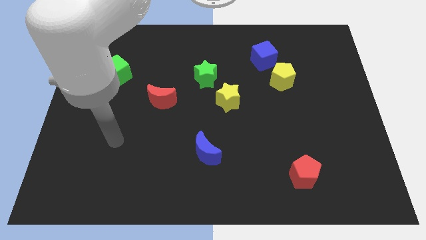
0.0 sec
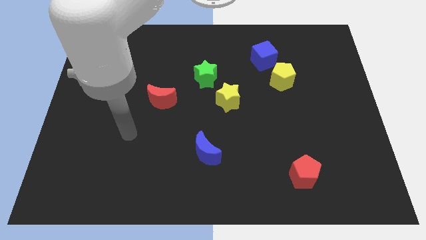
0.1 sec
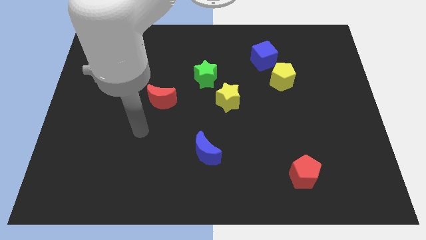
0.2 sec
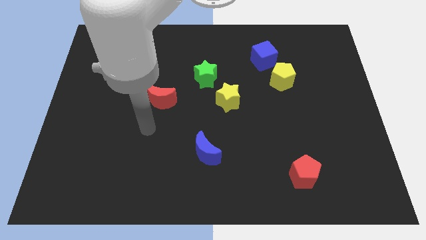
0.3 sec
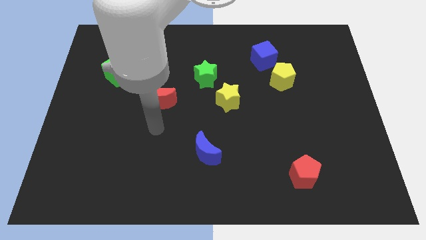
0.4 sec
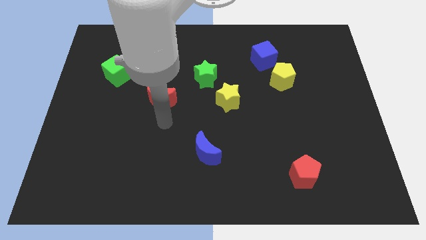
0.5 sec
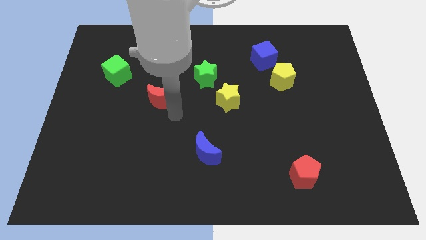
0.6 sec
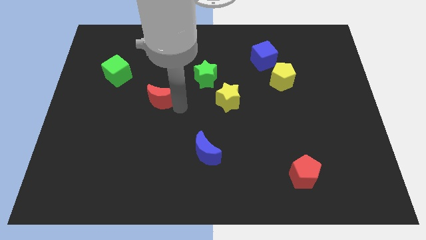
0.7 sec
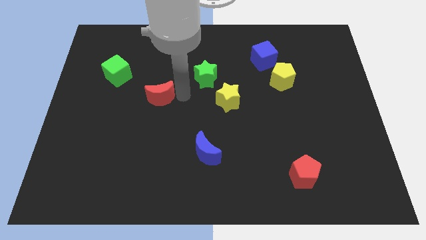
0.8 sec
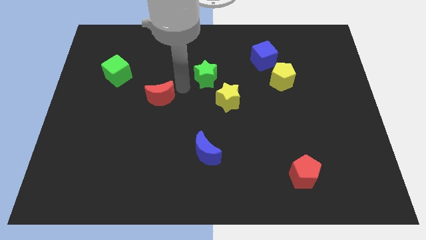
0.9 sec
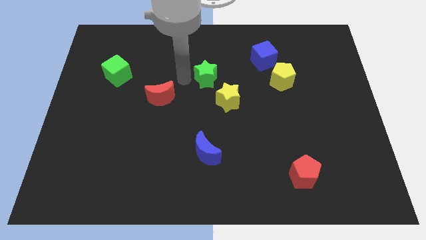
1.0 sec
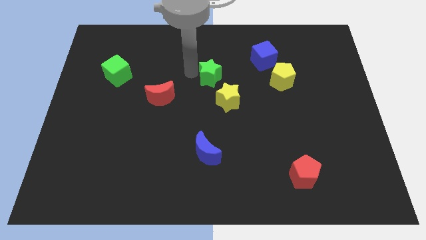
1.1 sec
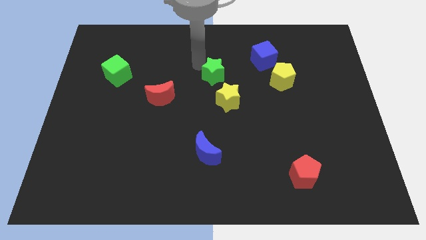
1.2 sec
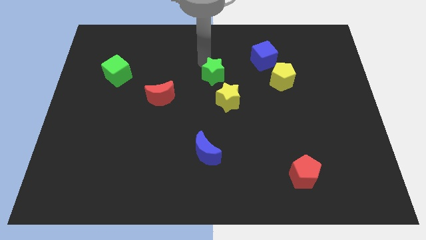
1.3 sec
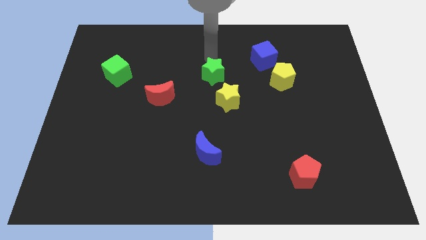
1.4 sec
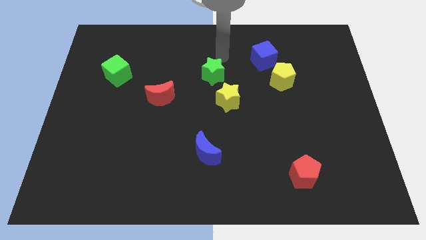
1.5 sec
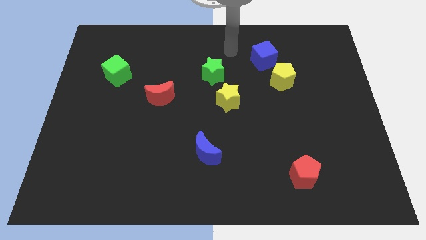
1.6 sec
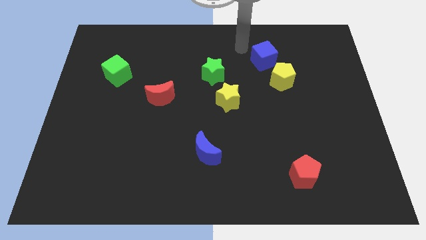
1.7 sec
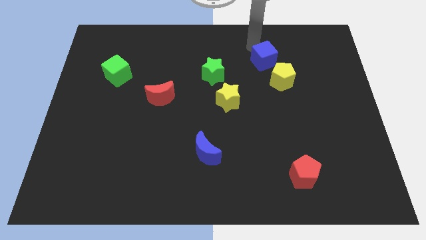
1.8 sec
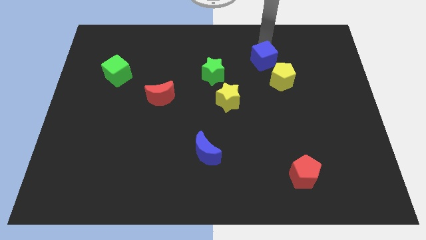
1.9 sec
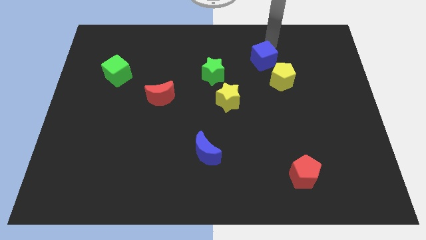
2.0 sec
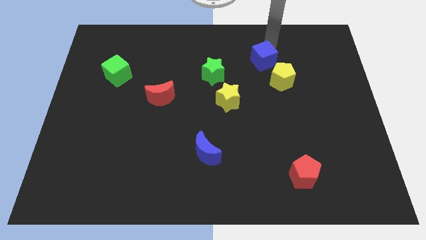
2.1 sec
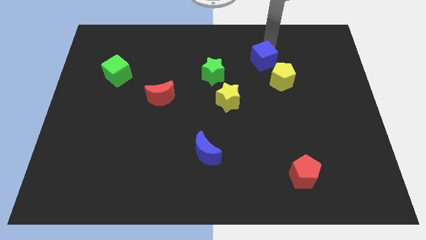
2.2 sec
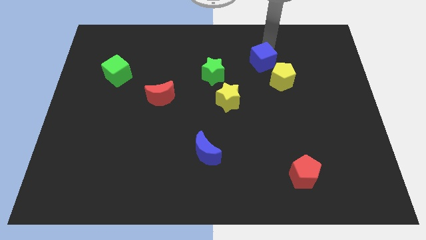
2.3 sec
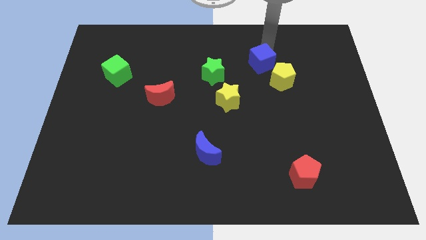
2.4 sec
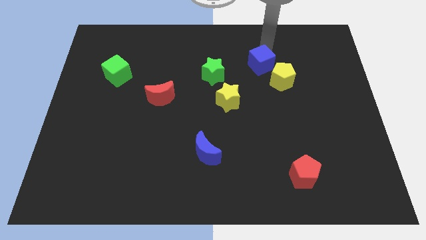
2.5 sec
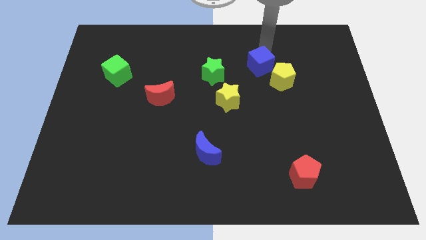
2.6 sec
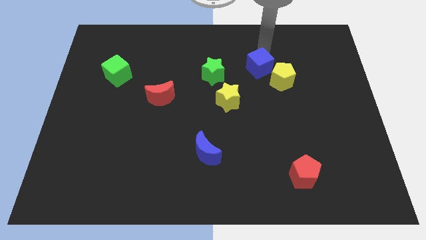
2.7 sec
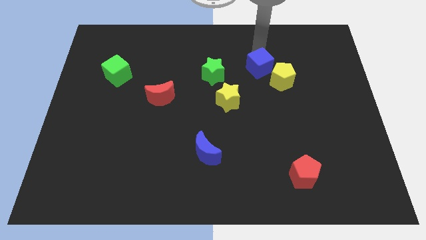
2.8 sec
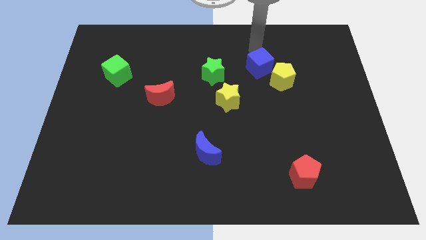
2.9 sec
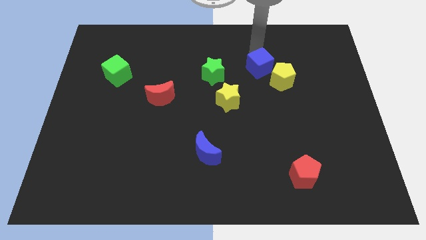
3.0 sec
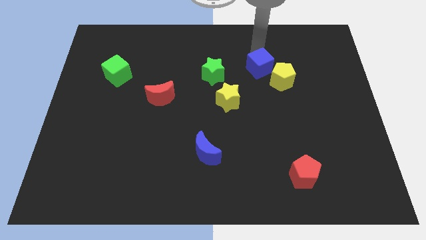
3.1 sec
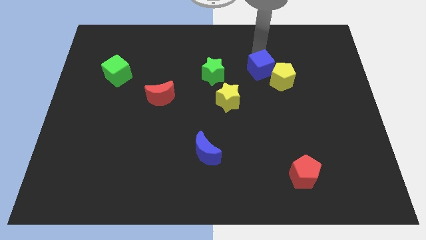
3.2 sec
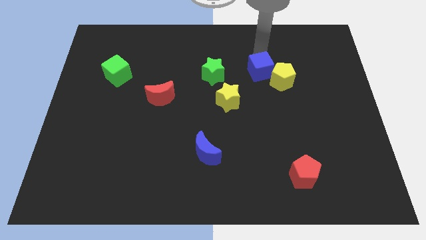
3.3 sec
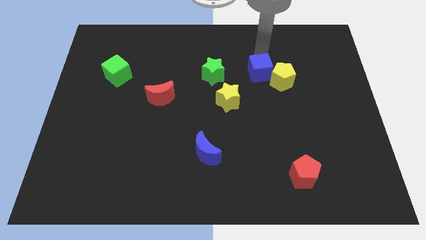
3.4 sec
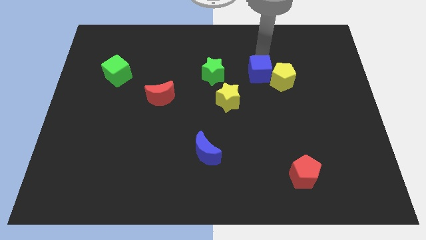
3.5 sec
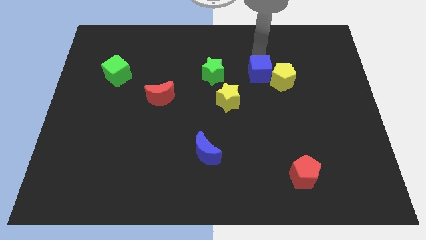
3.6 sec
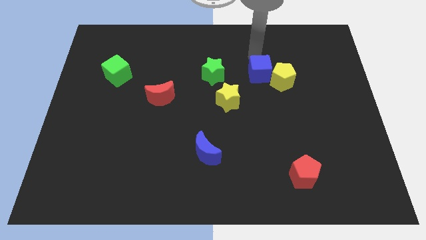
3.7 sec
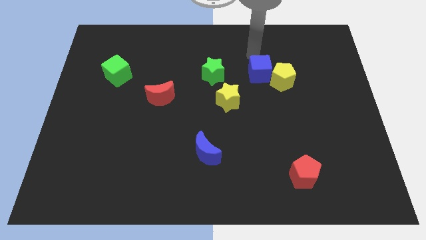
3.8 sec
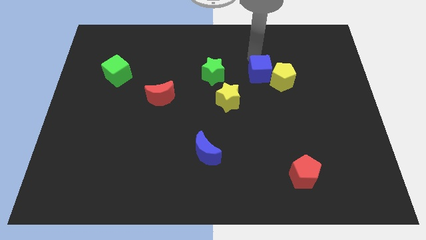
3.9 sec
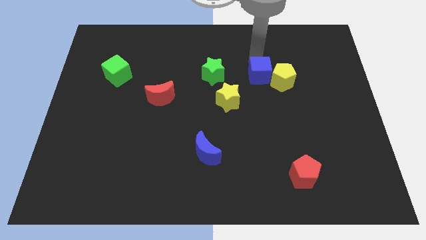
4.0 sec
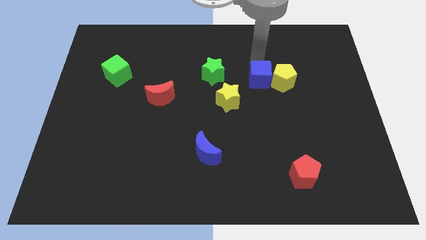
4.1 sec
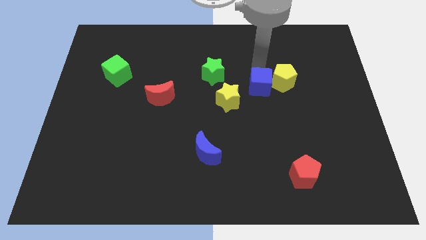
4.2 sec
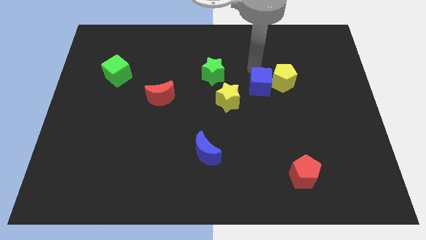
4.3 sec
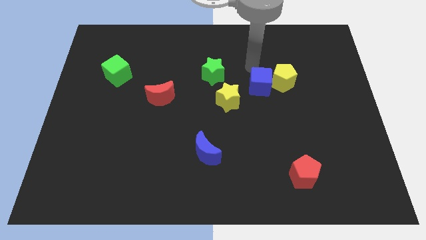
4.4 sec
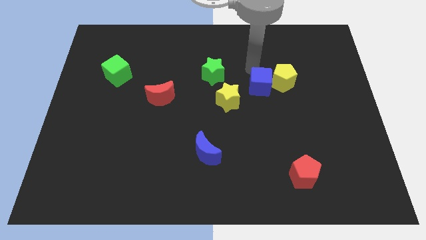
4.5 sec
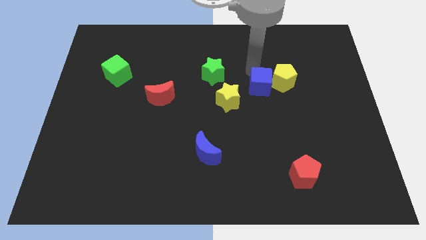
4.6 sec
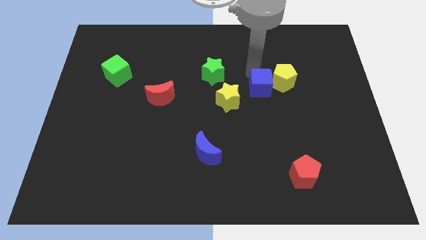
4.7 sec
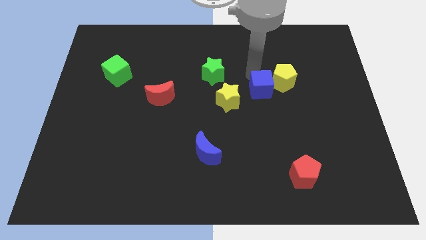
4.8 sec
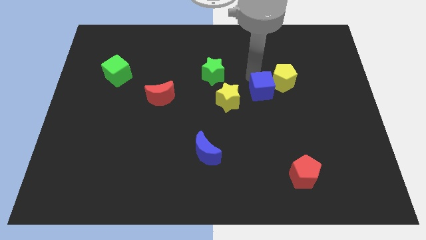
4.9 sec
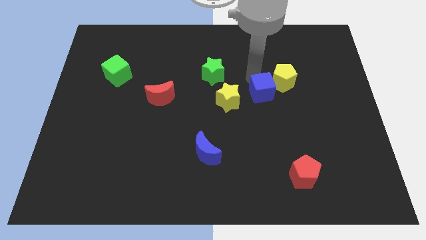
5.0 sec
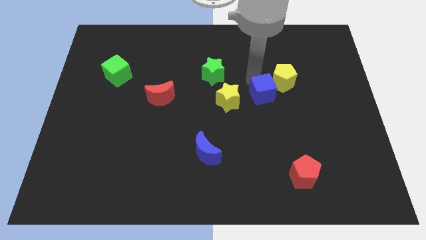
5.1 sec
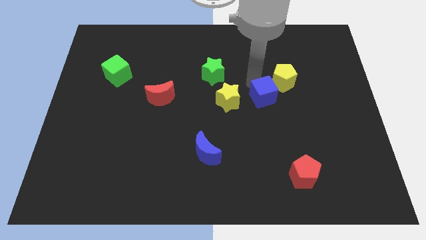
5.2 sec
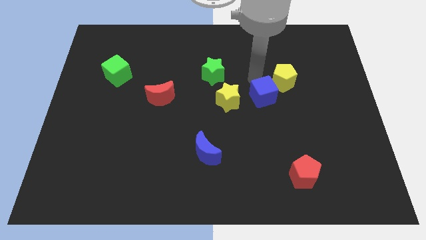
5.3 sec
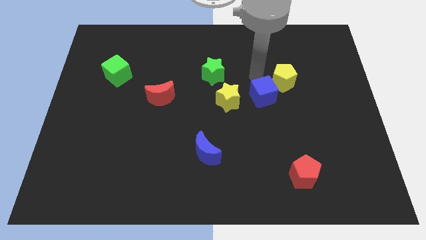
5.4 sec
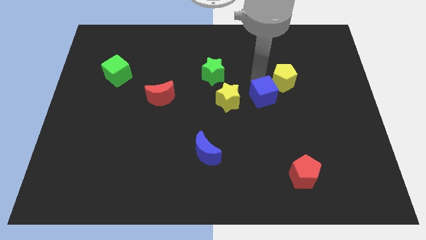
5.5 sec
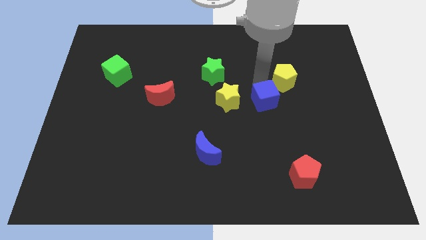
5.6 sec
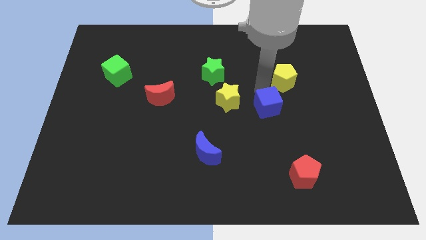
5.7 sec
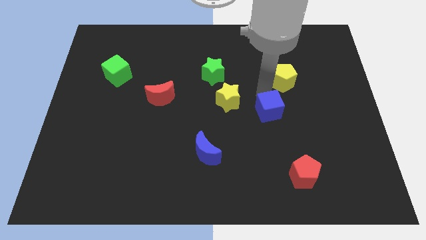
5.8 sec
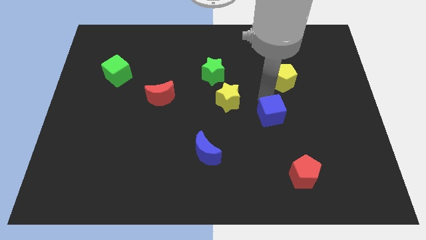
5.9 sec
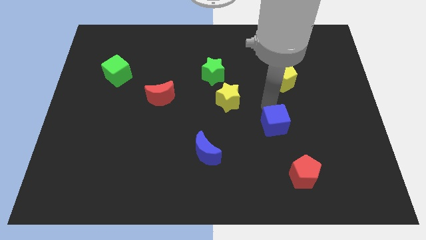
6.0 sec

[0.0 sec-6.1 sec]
slide the blue cube downwards

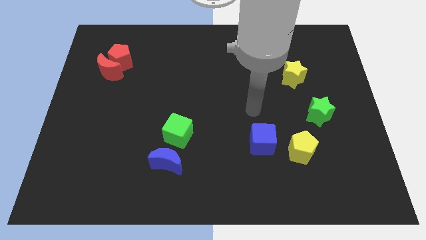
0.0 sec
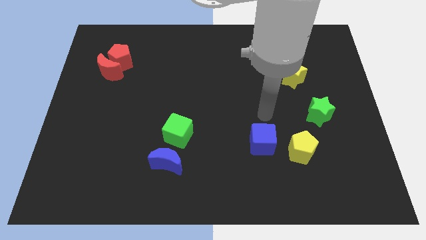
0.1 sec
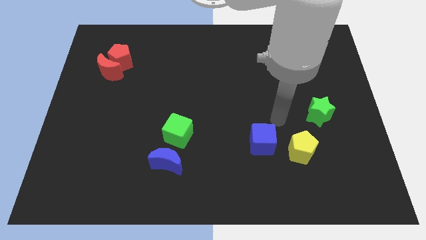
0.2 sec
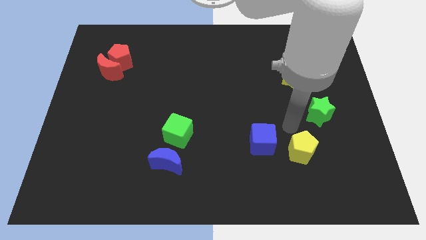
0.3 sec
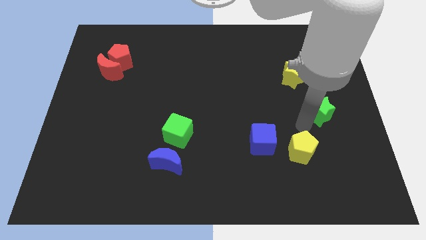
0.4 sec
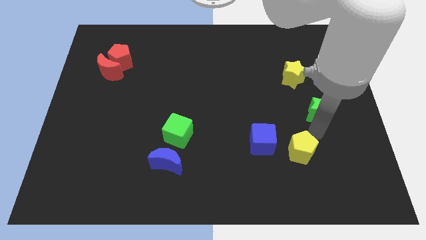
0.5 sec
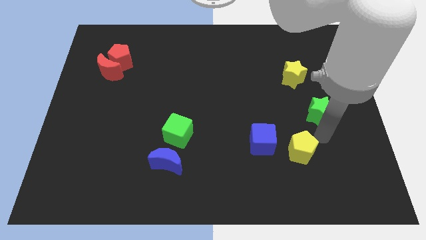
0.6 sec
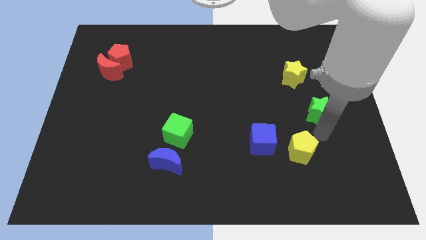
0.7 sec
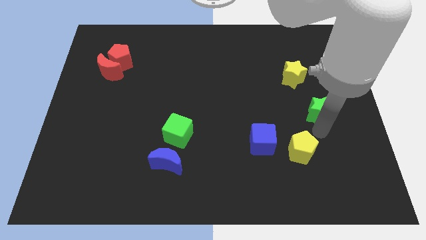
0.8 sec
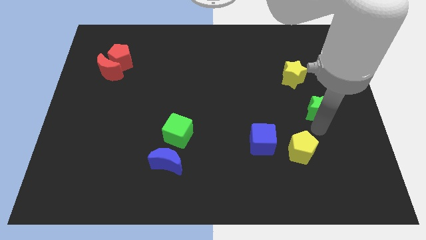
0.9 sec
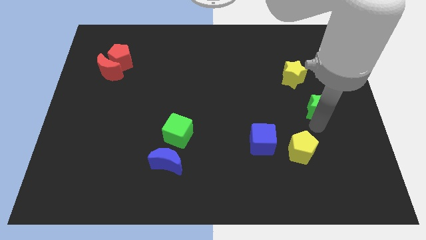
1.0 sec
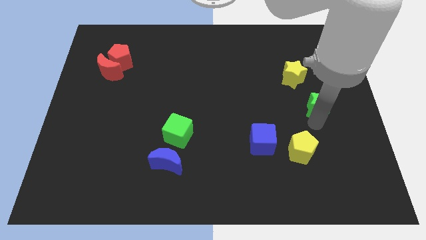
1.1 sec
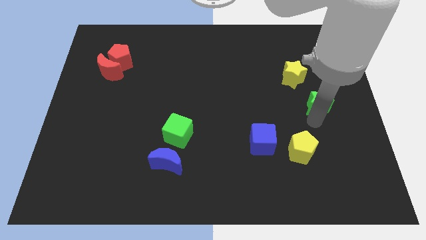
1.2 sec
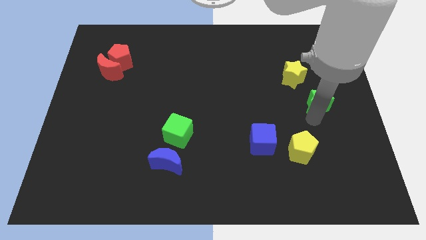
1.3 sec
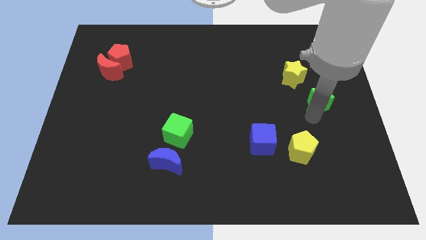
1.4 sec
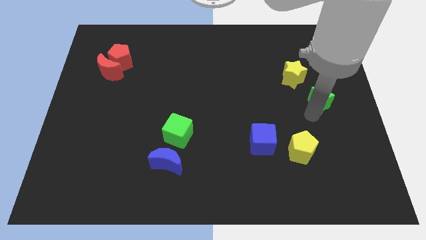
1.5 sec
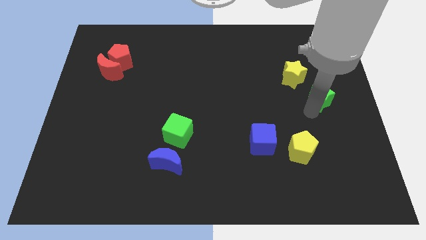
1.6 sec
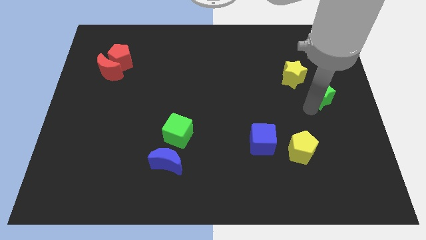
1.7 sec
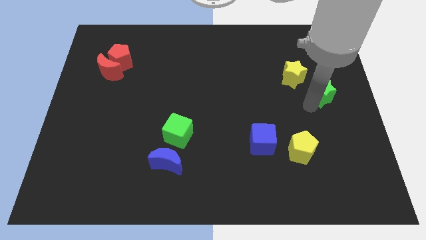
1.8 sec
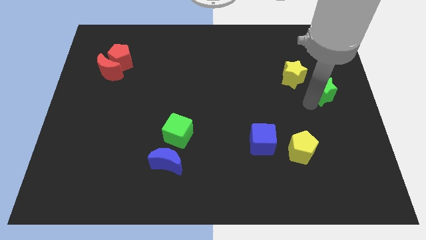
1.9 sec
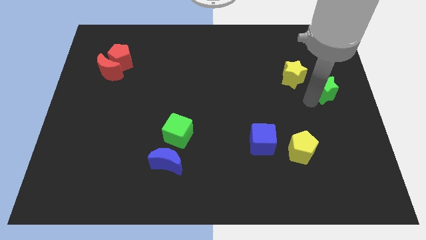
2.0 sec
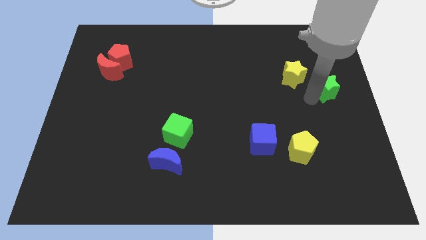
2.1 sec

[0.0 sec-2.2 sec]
slightly slide the green star upwards

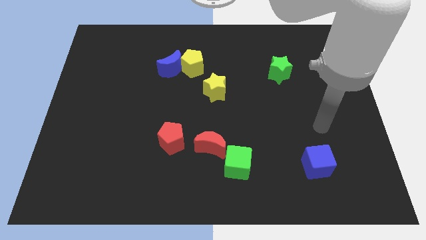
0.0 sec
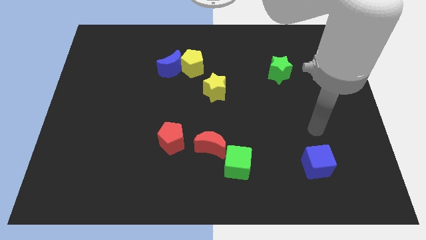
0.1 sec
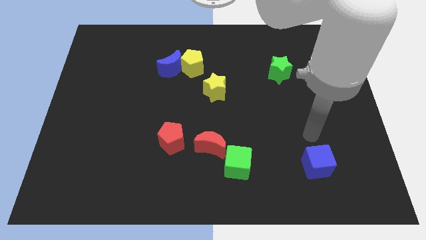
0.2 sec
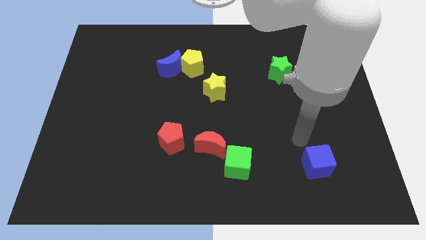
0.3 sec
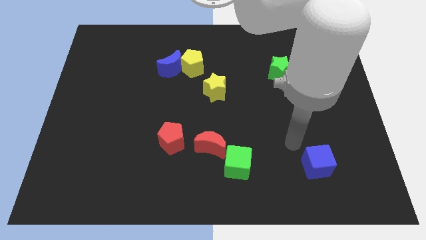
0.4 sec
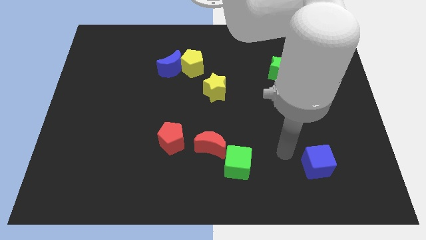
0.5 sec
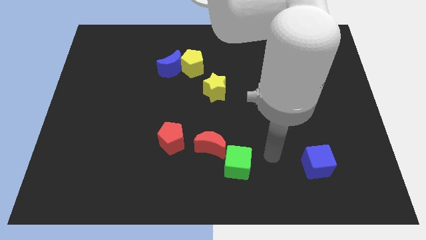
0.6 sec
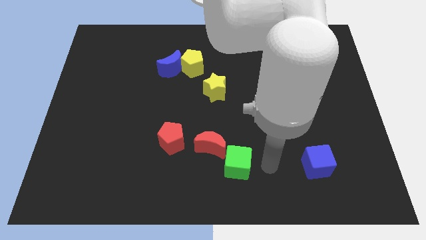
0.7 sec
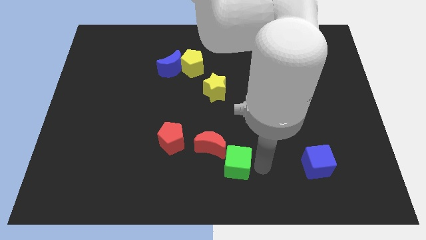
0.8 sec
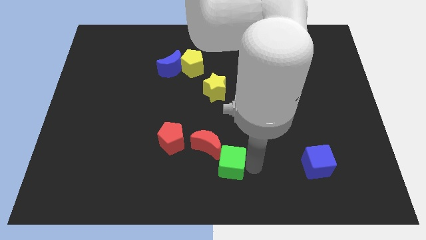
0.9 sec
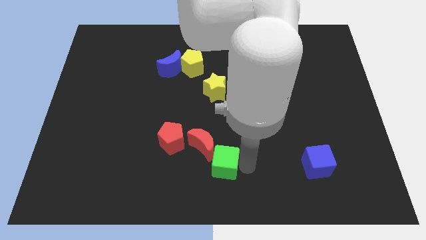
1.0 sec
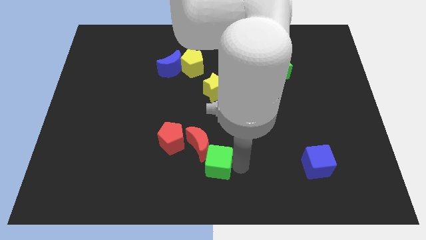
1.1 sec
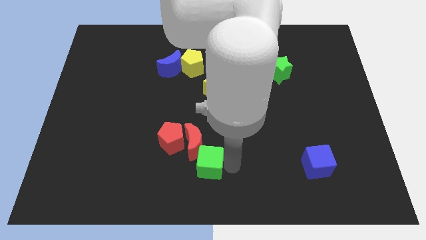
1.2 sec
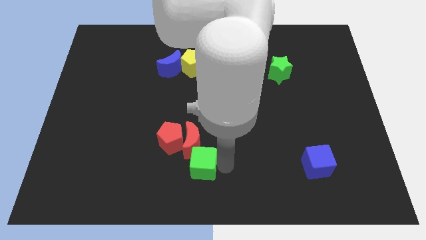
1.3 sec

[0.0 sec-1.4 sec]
slightly move the green cube left
